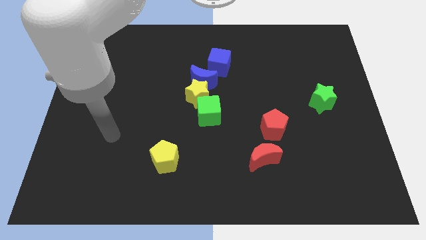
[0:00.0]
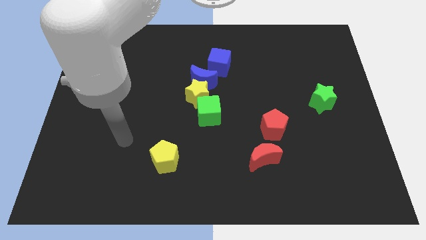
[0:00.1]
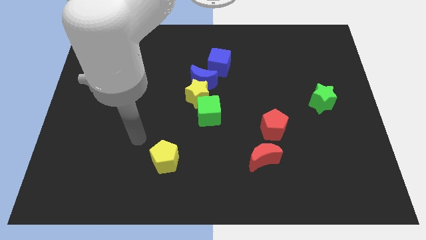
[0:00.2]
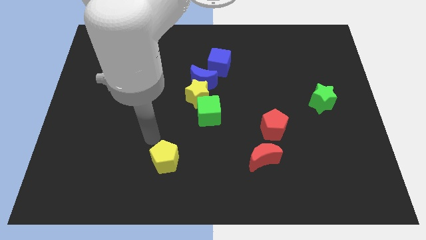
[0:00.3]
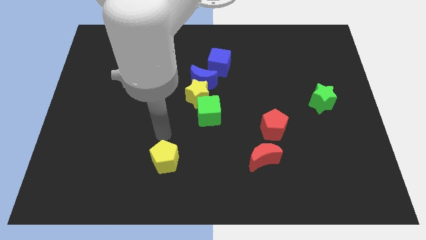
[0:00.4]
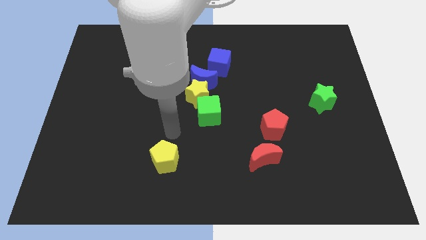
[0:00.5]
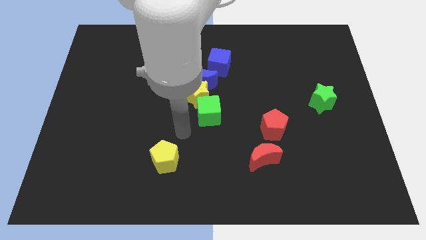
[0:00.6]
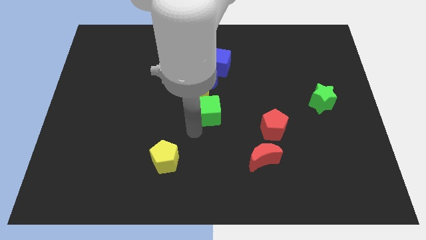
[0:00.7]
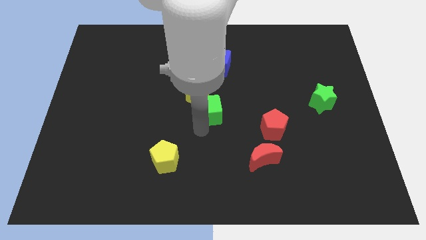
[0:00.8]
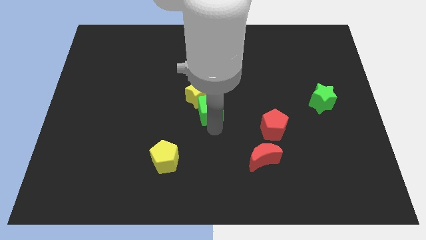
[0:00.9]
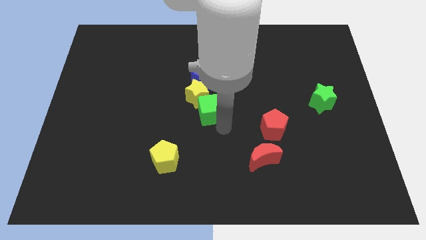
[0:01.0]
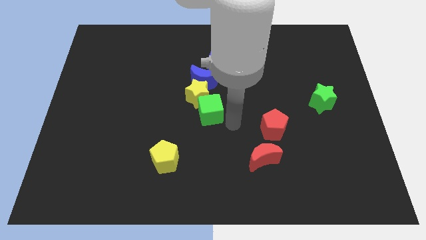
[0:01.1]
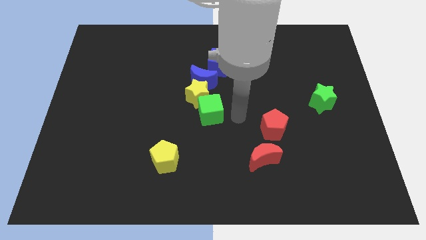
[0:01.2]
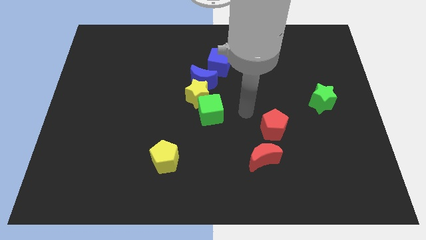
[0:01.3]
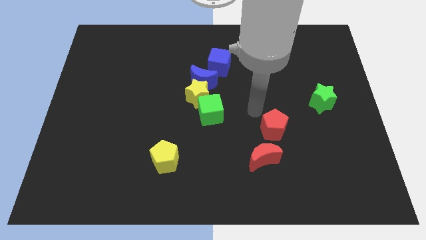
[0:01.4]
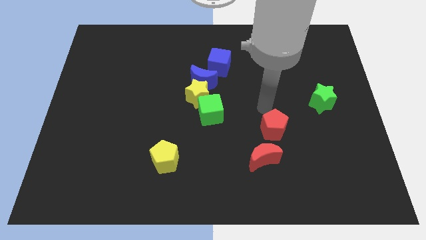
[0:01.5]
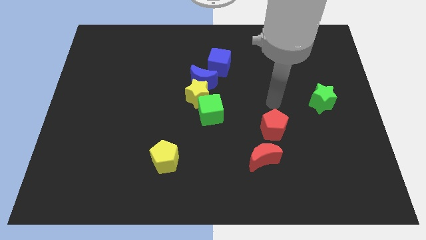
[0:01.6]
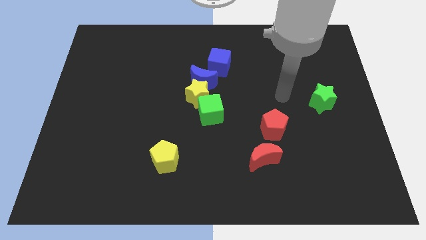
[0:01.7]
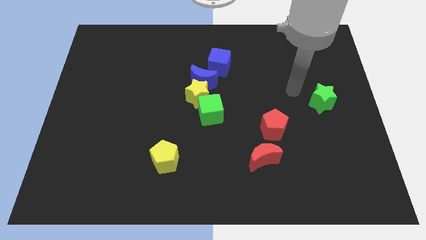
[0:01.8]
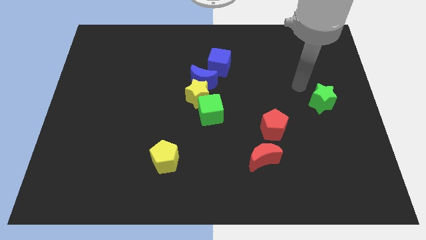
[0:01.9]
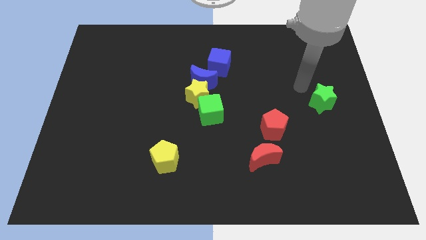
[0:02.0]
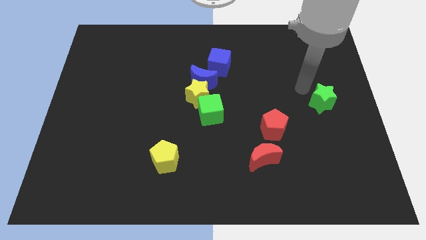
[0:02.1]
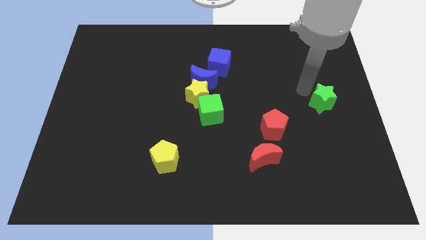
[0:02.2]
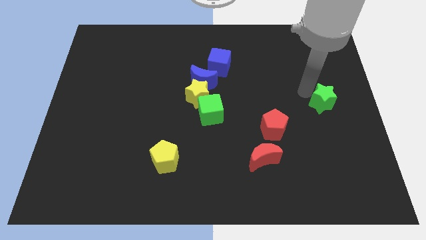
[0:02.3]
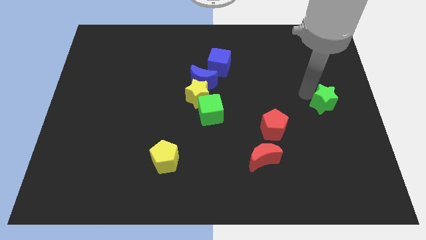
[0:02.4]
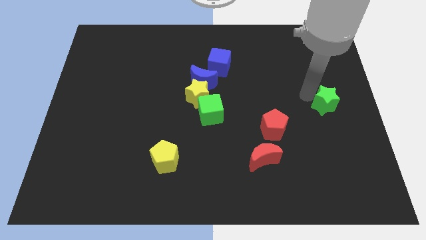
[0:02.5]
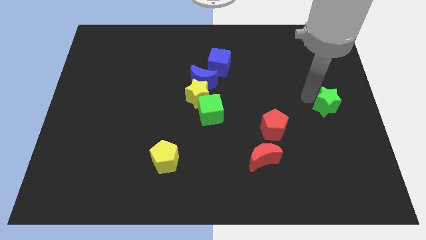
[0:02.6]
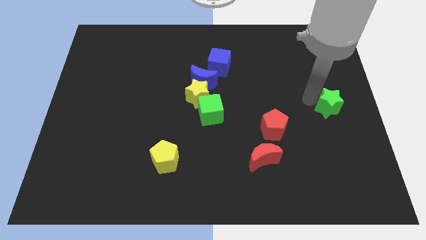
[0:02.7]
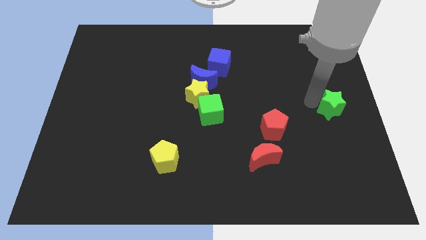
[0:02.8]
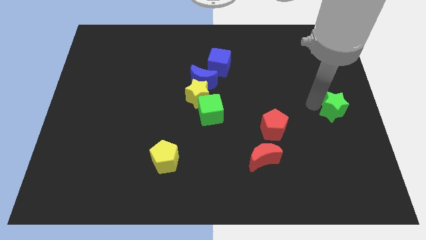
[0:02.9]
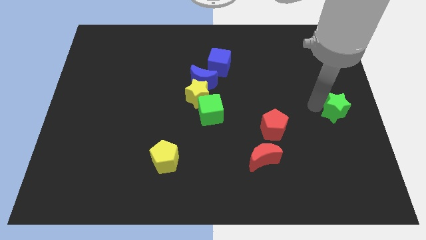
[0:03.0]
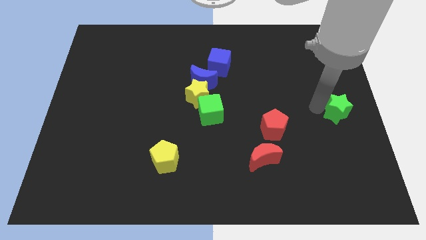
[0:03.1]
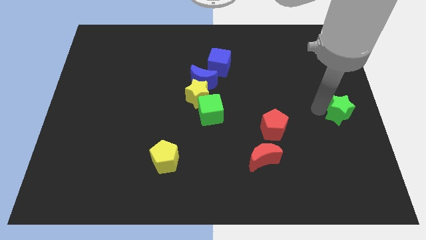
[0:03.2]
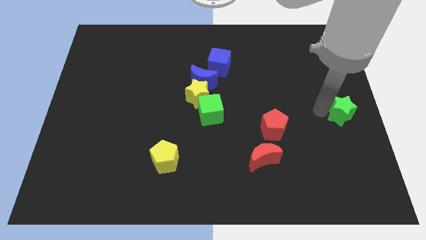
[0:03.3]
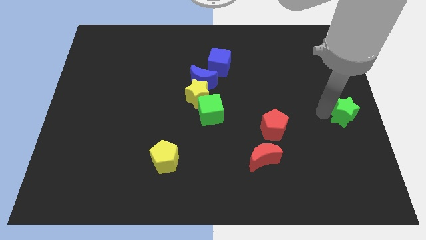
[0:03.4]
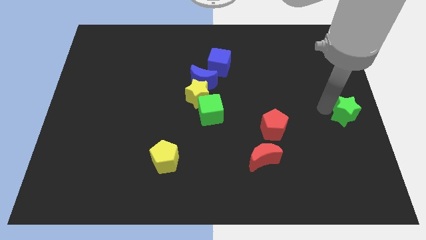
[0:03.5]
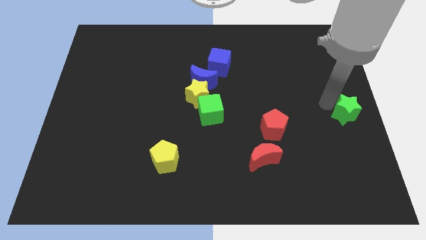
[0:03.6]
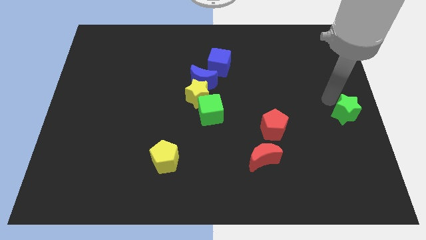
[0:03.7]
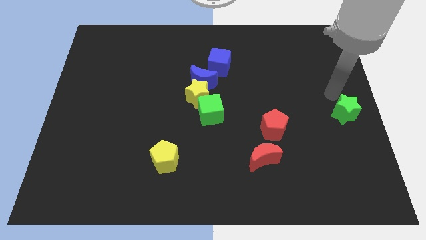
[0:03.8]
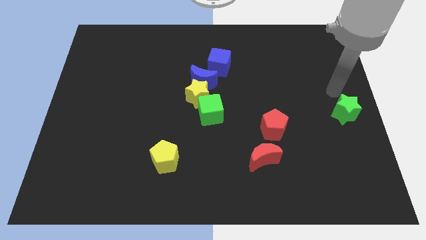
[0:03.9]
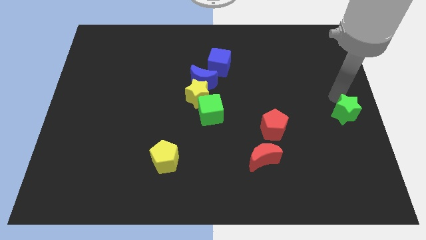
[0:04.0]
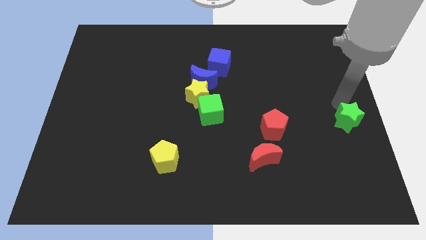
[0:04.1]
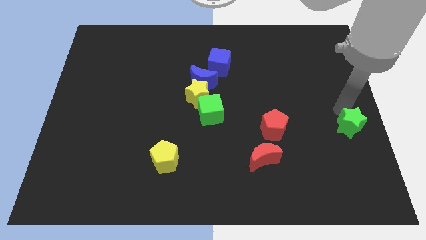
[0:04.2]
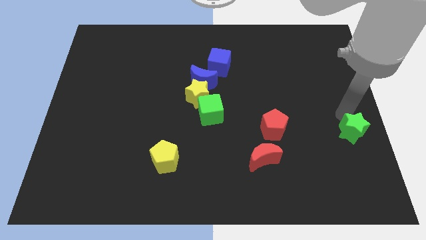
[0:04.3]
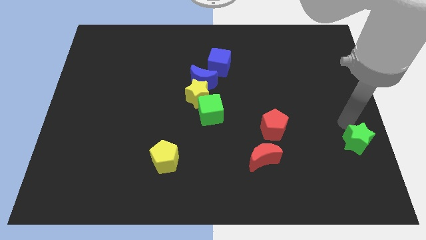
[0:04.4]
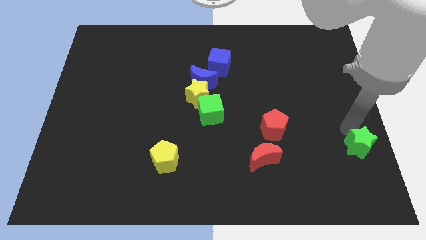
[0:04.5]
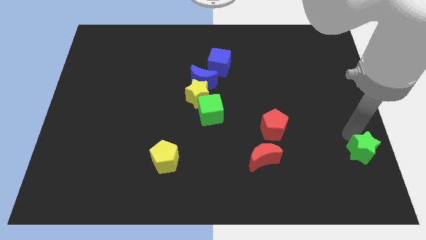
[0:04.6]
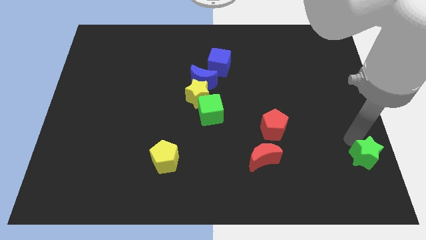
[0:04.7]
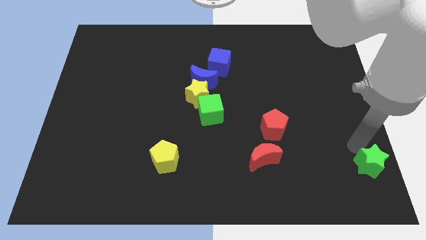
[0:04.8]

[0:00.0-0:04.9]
put the green star to the bottom right
